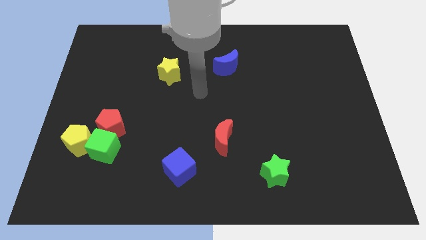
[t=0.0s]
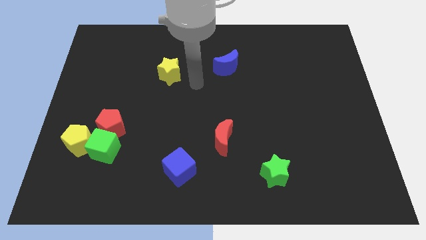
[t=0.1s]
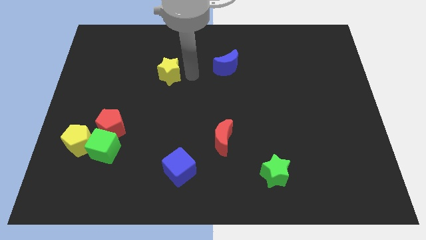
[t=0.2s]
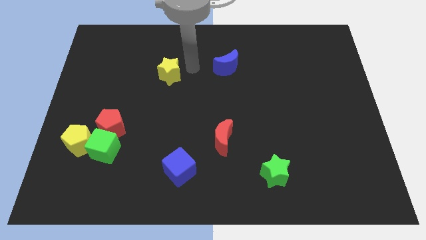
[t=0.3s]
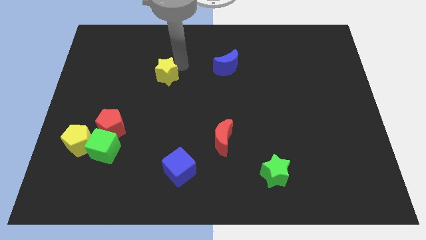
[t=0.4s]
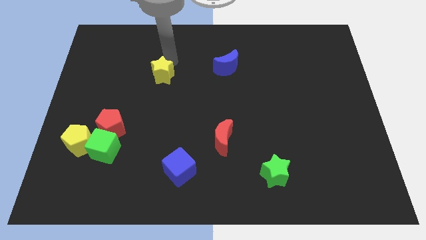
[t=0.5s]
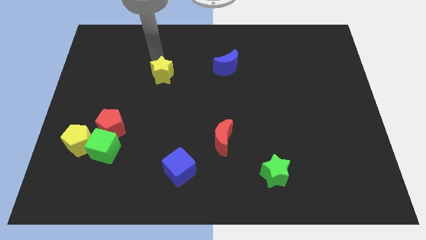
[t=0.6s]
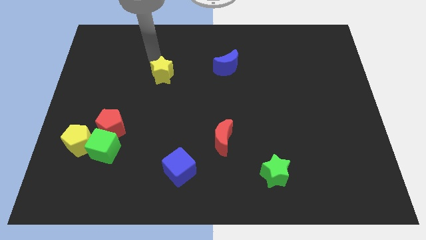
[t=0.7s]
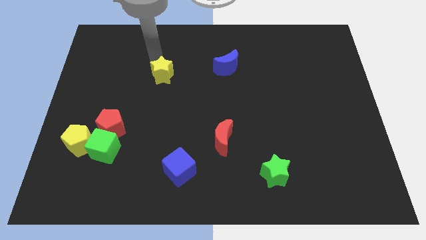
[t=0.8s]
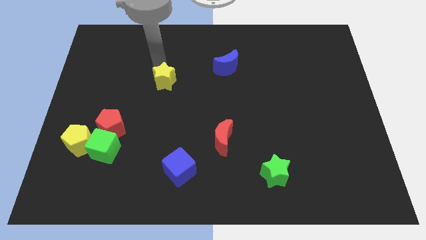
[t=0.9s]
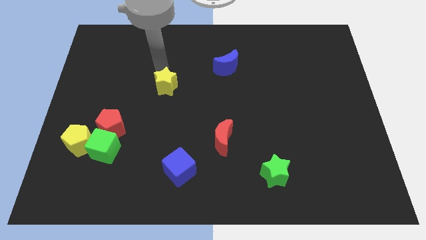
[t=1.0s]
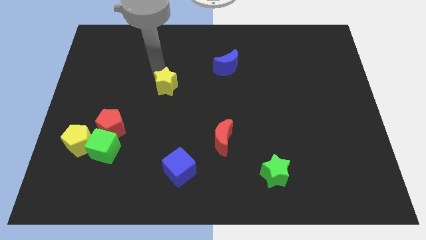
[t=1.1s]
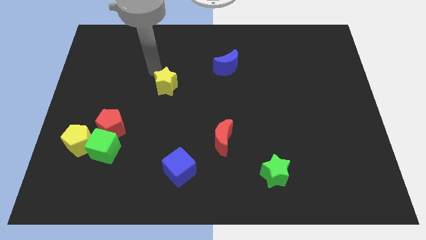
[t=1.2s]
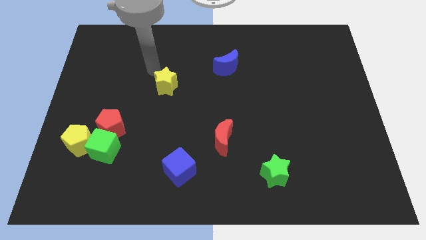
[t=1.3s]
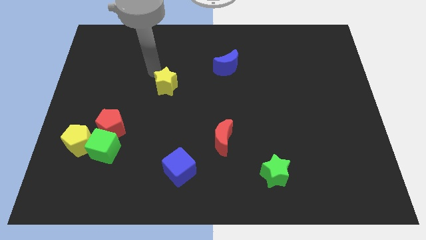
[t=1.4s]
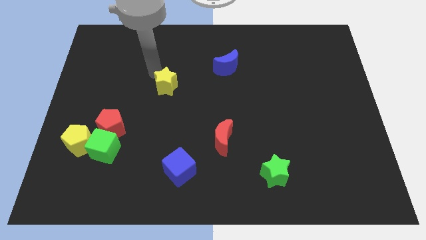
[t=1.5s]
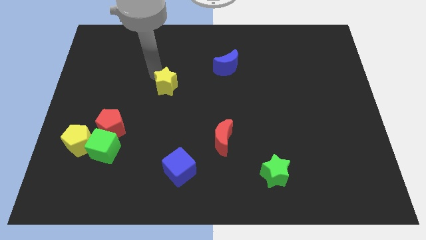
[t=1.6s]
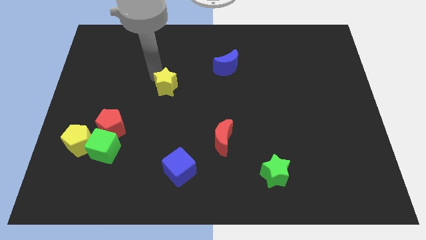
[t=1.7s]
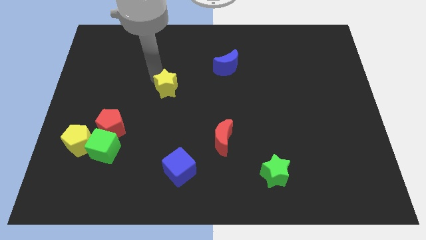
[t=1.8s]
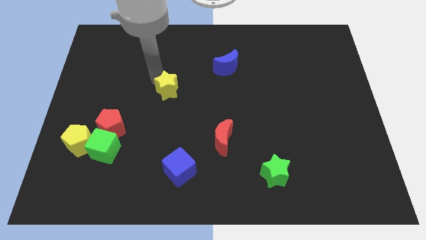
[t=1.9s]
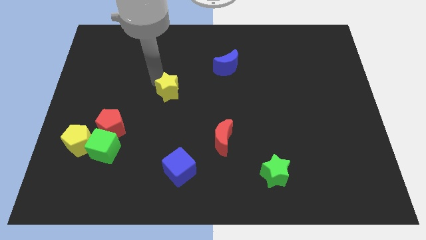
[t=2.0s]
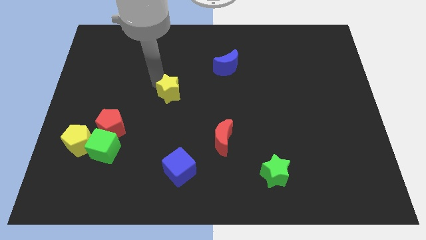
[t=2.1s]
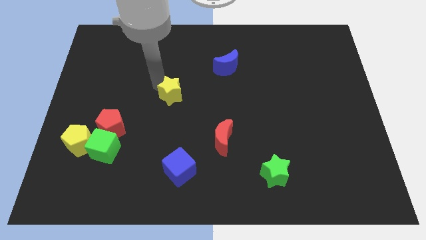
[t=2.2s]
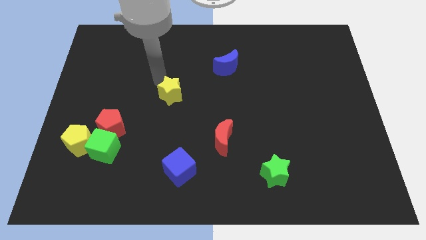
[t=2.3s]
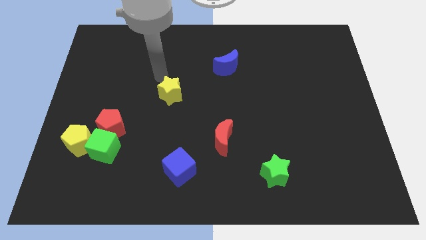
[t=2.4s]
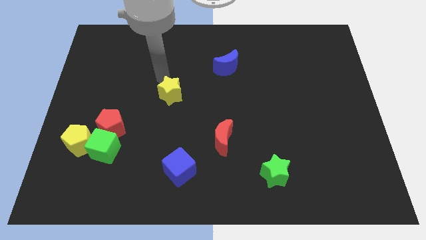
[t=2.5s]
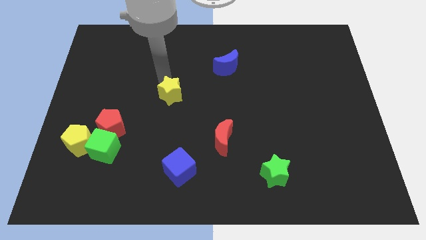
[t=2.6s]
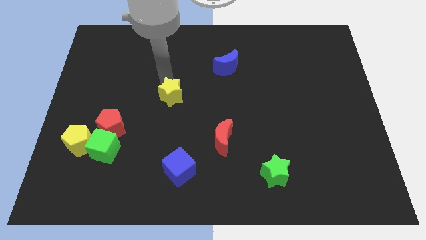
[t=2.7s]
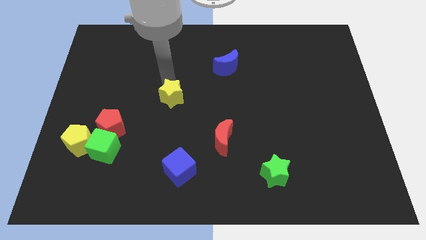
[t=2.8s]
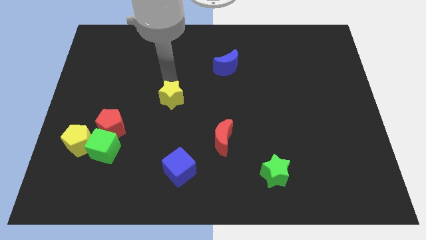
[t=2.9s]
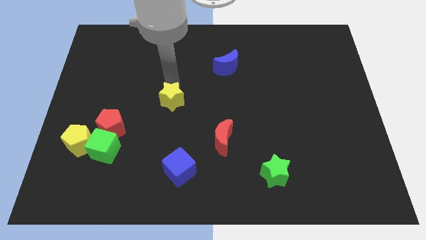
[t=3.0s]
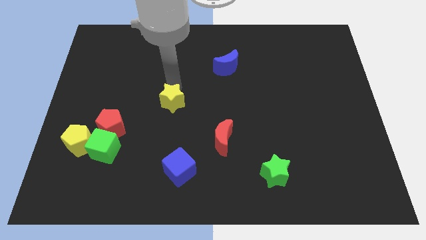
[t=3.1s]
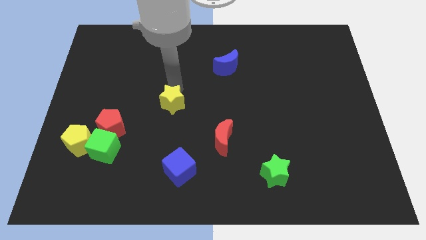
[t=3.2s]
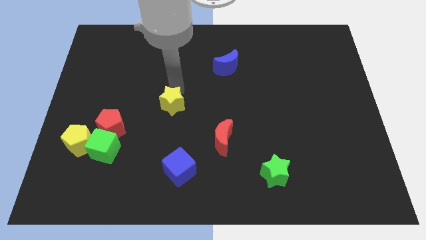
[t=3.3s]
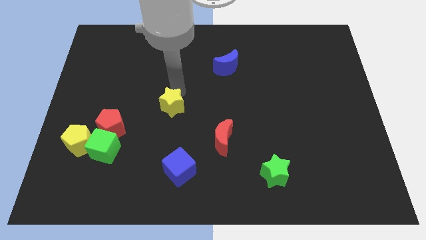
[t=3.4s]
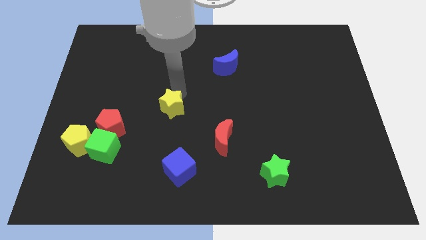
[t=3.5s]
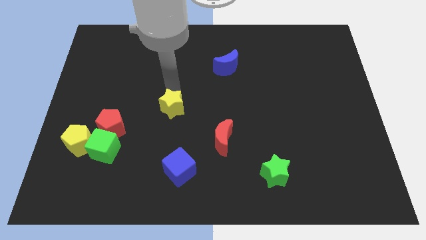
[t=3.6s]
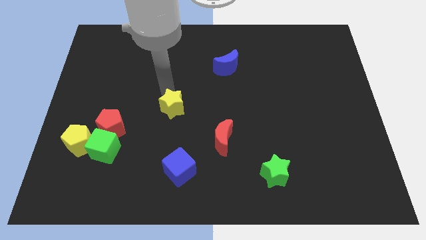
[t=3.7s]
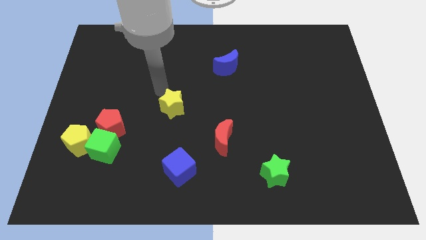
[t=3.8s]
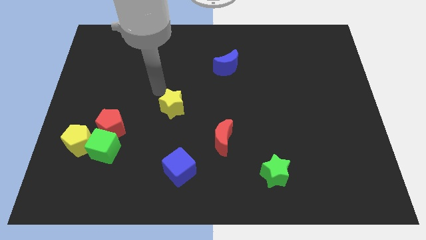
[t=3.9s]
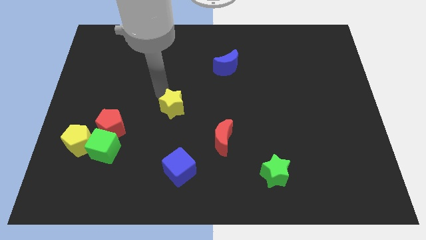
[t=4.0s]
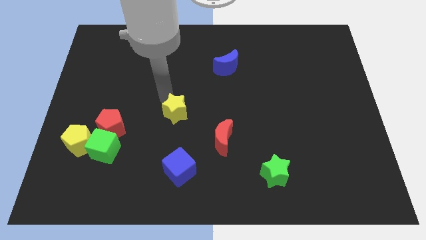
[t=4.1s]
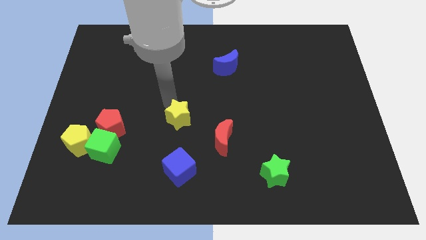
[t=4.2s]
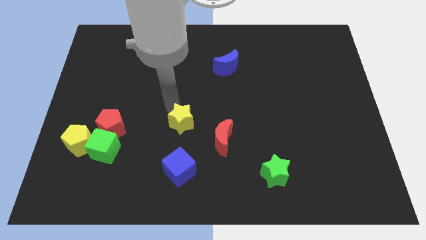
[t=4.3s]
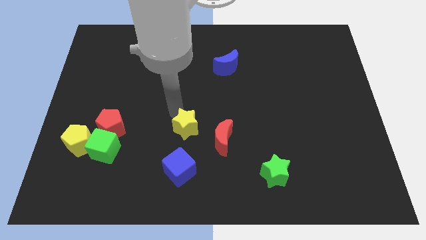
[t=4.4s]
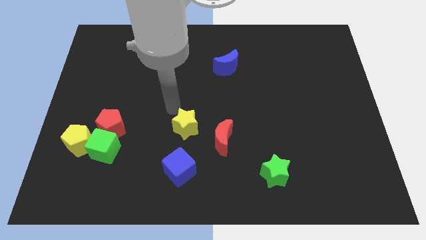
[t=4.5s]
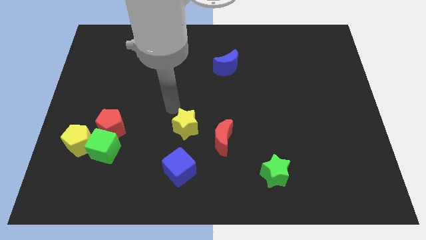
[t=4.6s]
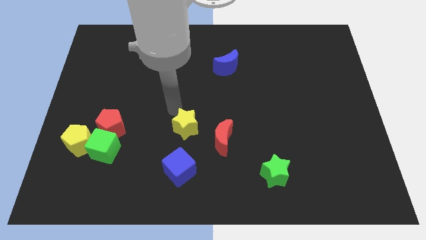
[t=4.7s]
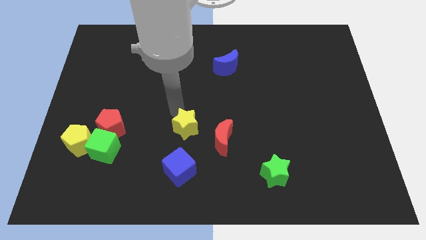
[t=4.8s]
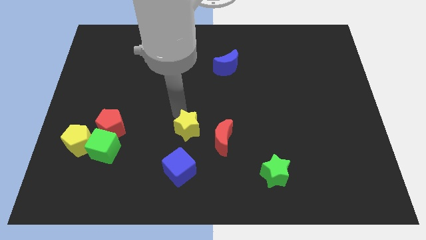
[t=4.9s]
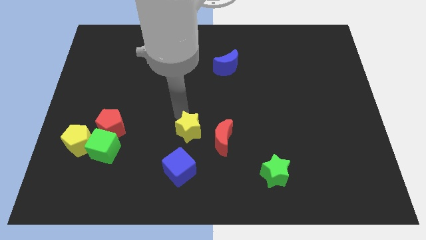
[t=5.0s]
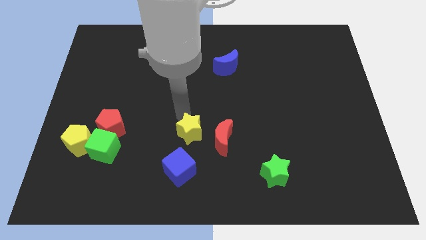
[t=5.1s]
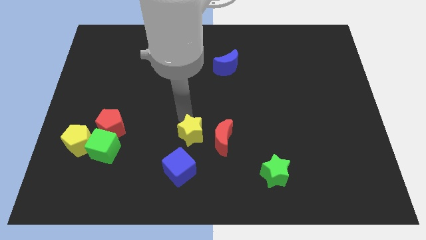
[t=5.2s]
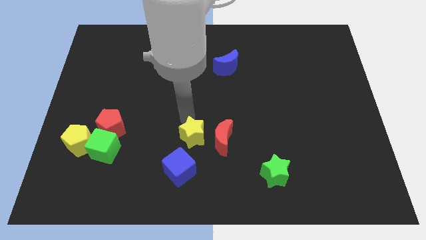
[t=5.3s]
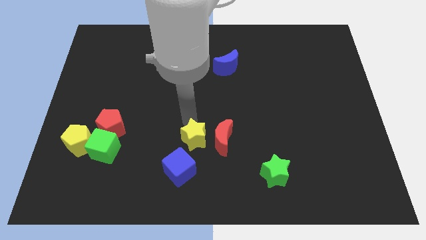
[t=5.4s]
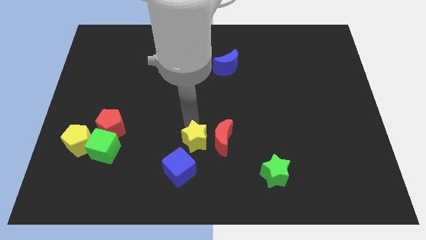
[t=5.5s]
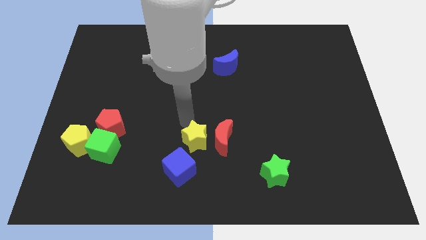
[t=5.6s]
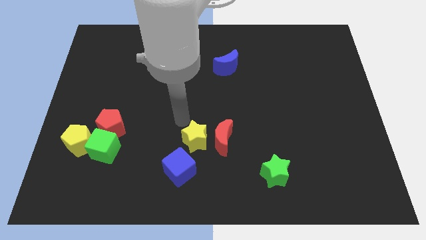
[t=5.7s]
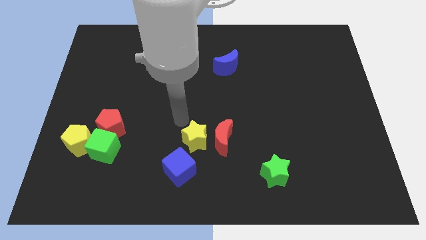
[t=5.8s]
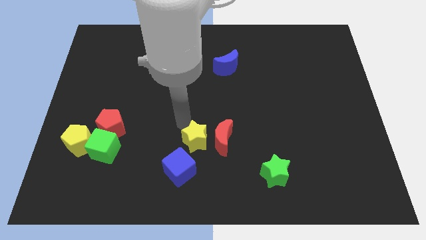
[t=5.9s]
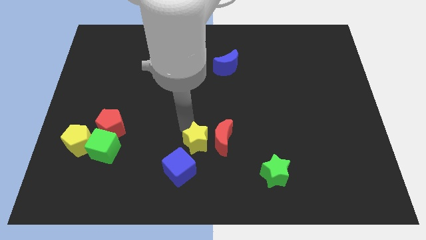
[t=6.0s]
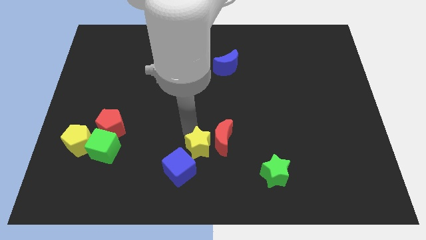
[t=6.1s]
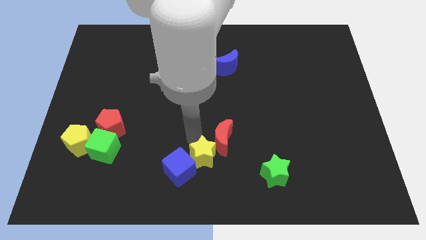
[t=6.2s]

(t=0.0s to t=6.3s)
slide the yellow star right of the blue cube

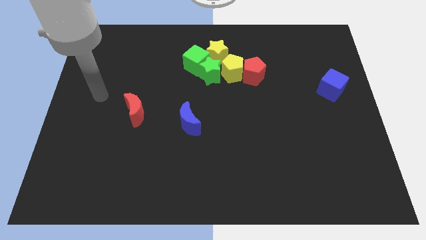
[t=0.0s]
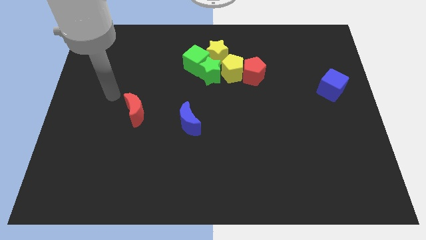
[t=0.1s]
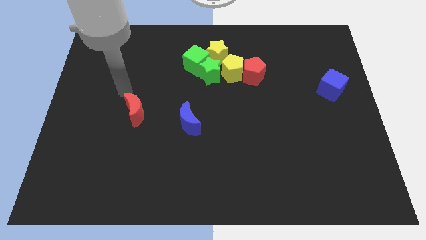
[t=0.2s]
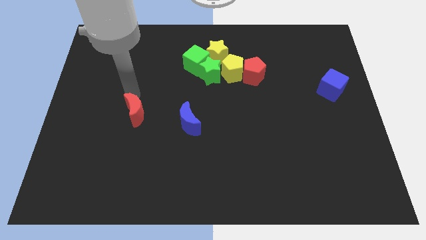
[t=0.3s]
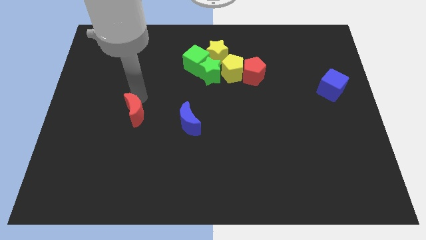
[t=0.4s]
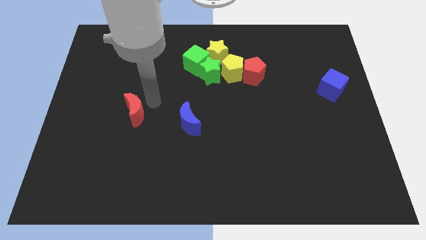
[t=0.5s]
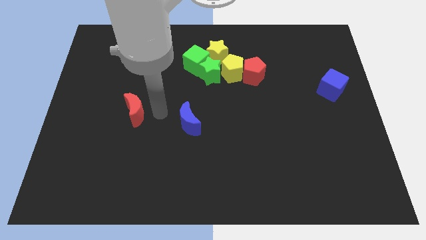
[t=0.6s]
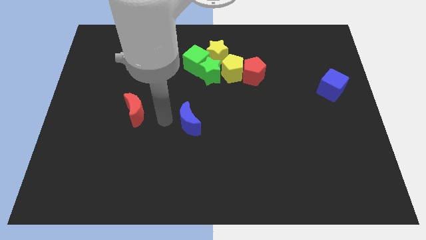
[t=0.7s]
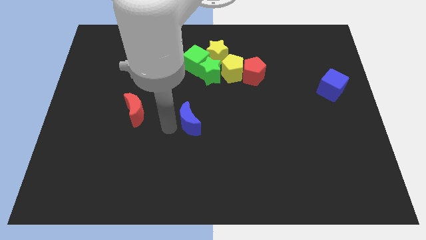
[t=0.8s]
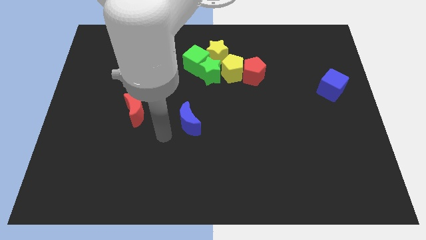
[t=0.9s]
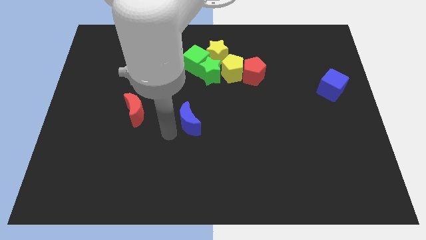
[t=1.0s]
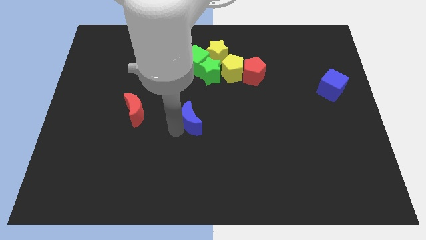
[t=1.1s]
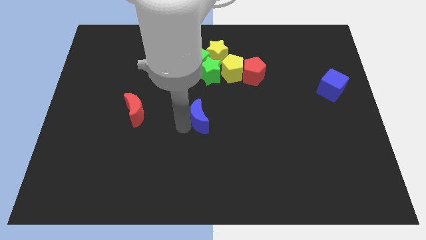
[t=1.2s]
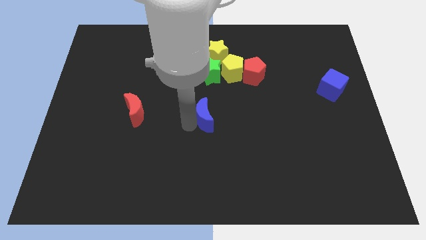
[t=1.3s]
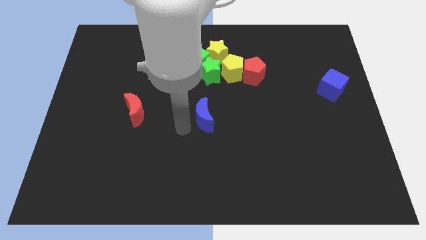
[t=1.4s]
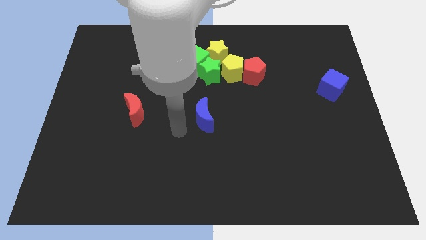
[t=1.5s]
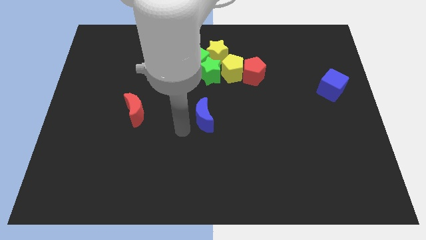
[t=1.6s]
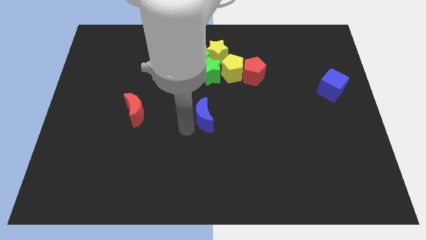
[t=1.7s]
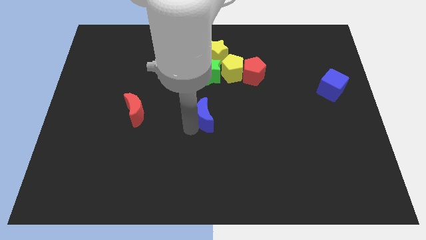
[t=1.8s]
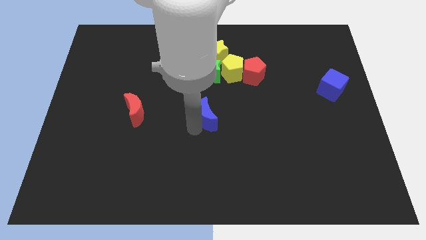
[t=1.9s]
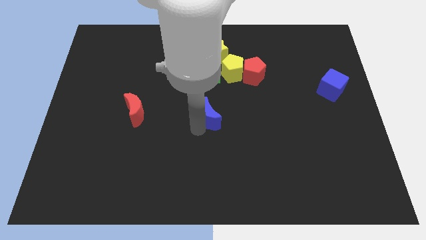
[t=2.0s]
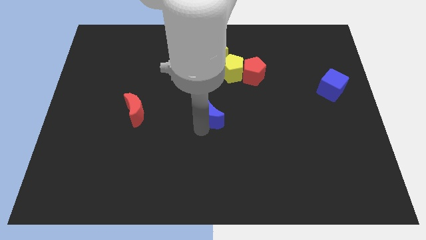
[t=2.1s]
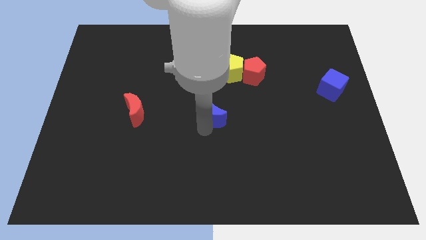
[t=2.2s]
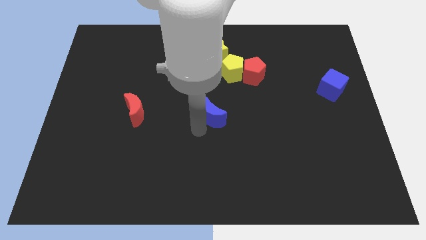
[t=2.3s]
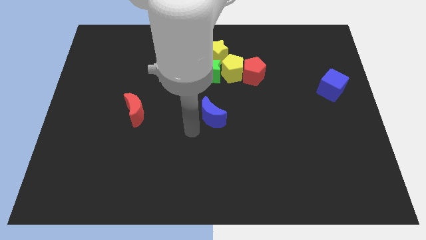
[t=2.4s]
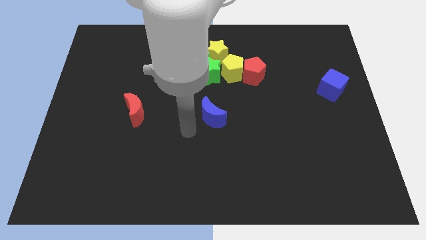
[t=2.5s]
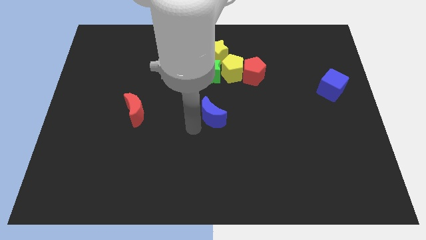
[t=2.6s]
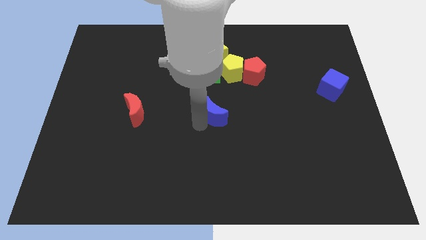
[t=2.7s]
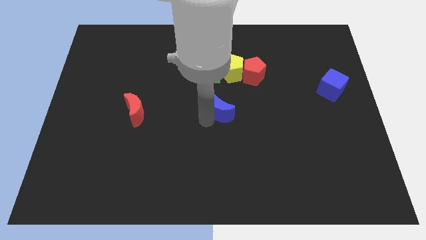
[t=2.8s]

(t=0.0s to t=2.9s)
put the blue moon below the yellow pentagon
